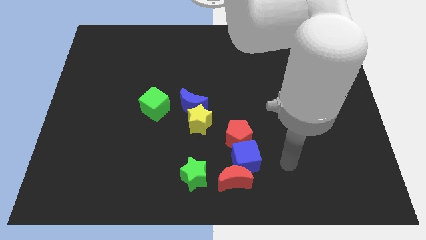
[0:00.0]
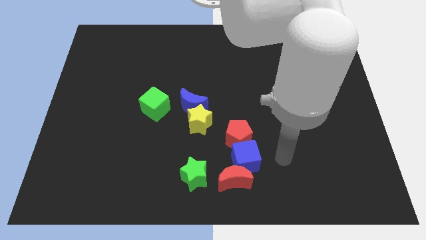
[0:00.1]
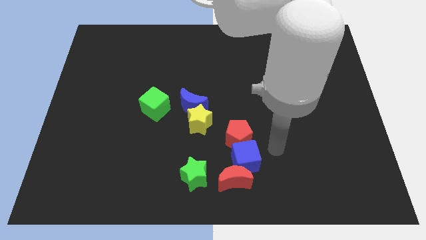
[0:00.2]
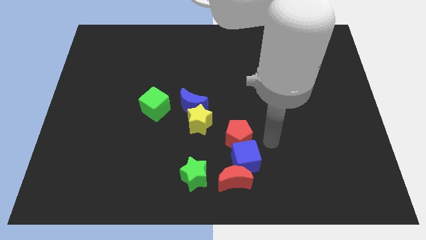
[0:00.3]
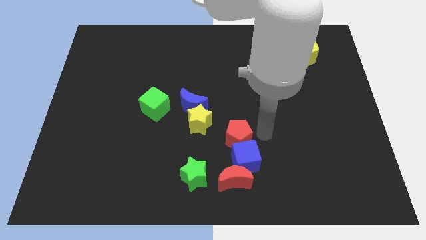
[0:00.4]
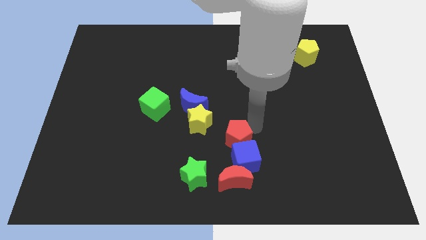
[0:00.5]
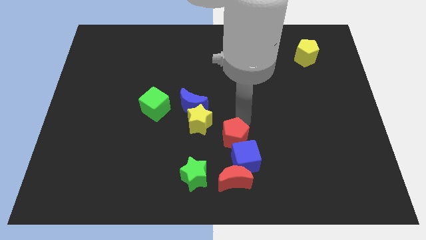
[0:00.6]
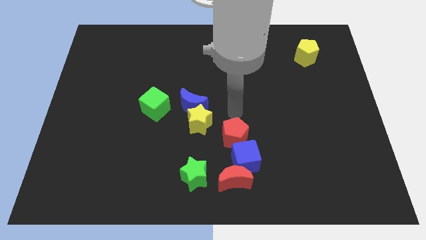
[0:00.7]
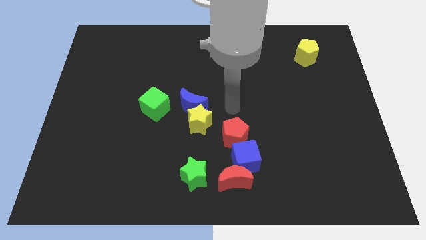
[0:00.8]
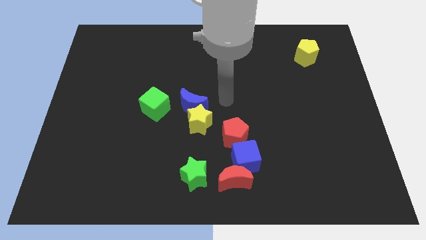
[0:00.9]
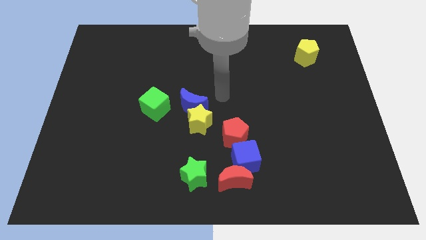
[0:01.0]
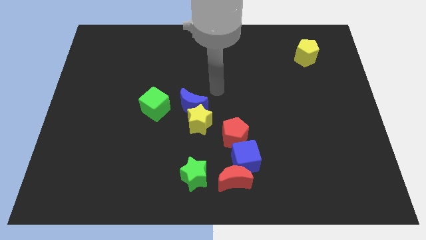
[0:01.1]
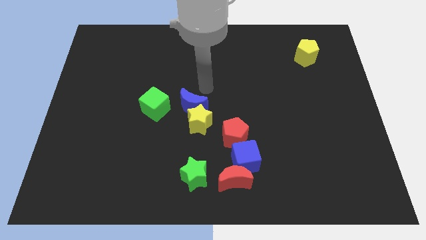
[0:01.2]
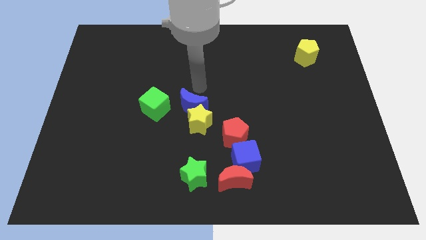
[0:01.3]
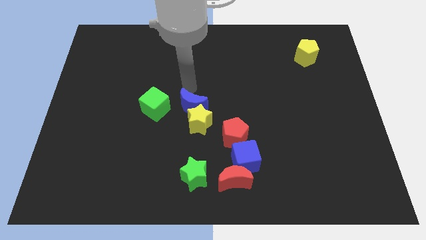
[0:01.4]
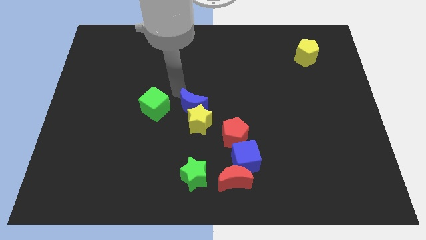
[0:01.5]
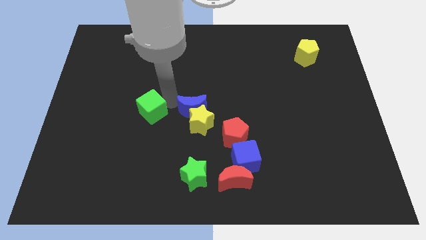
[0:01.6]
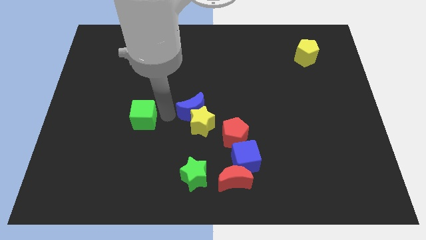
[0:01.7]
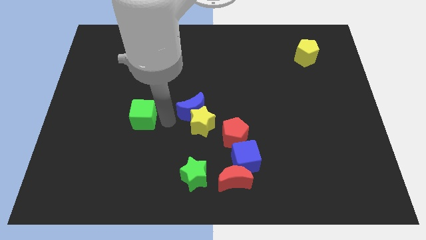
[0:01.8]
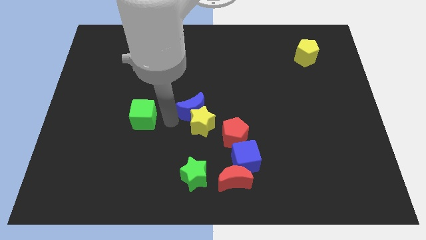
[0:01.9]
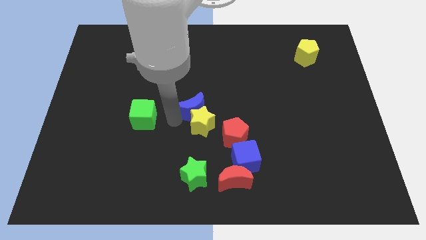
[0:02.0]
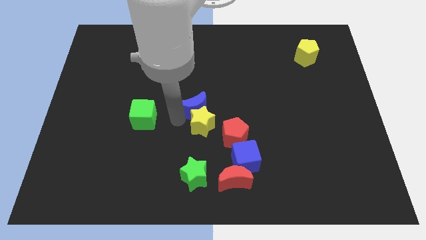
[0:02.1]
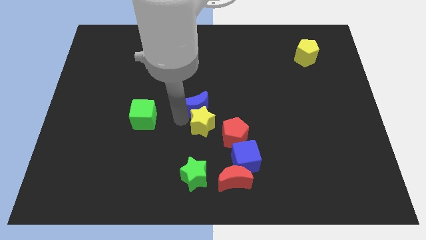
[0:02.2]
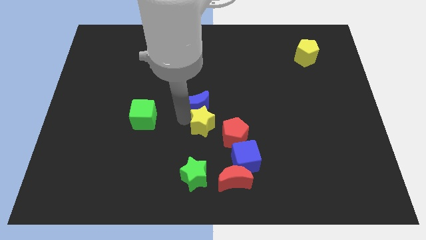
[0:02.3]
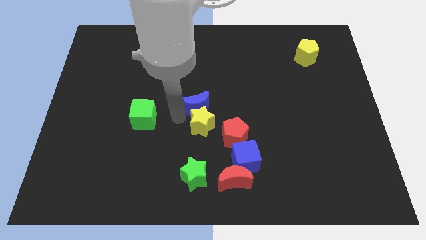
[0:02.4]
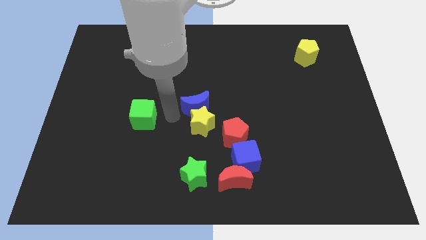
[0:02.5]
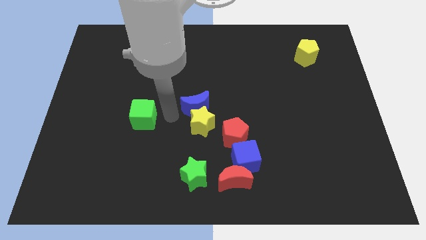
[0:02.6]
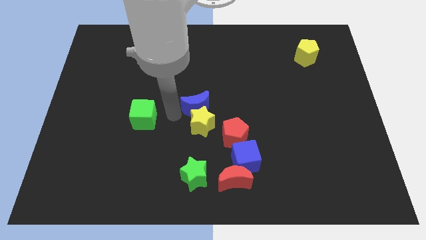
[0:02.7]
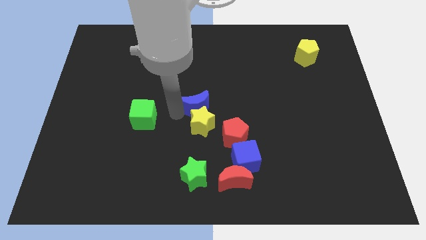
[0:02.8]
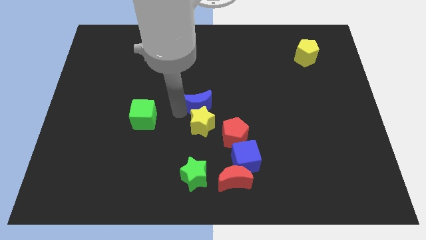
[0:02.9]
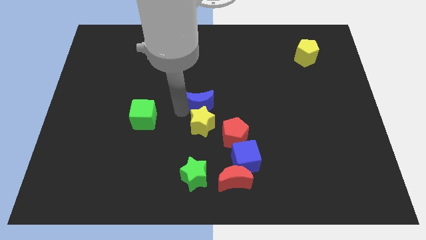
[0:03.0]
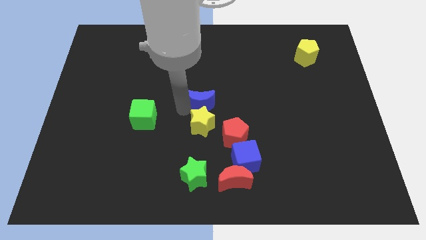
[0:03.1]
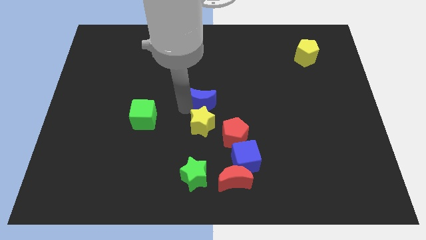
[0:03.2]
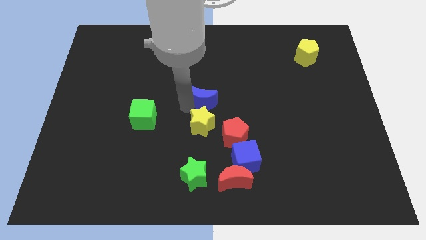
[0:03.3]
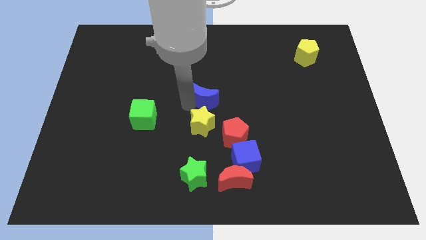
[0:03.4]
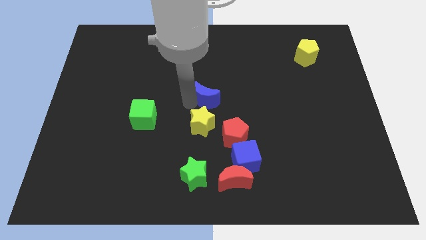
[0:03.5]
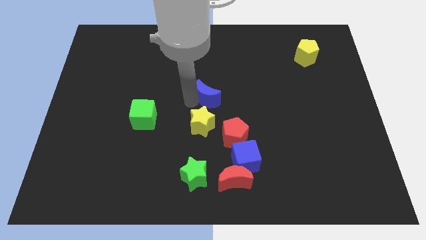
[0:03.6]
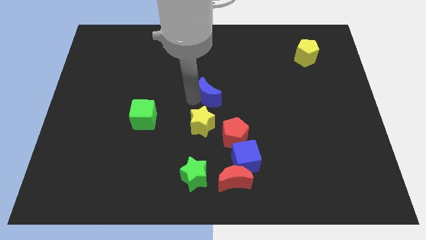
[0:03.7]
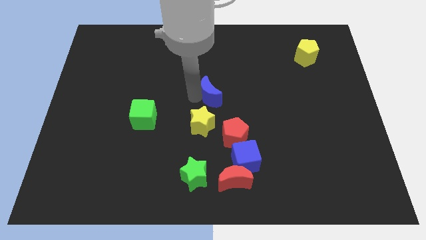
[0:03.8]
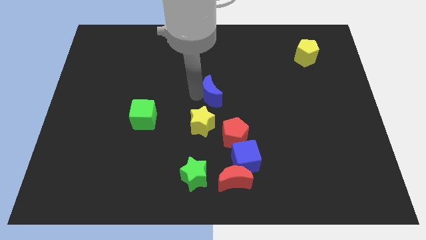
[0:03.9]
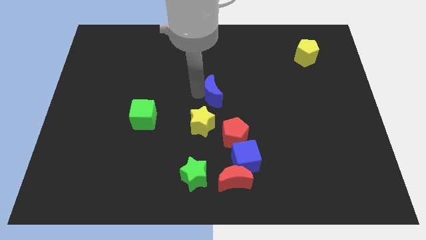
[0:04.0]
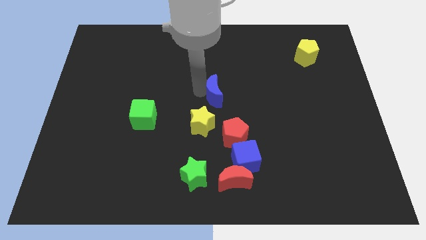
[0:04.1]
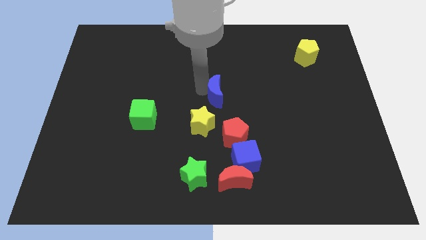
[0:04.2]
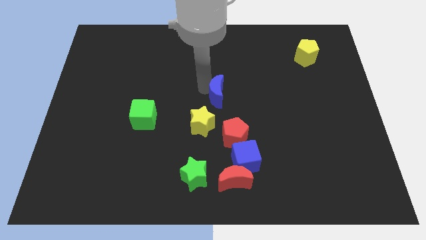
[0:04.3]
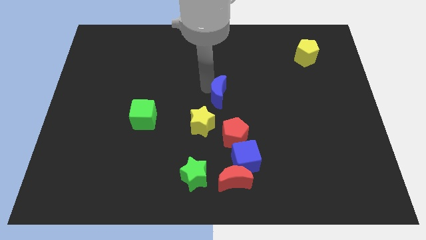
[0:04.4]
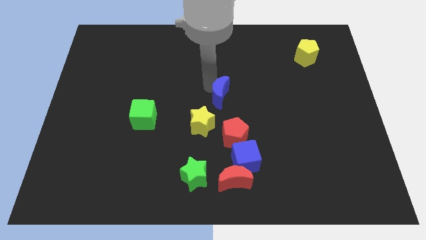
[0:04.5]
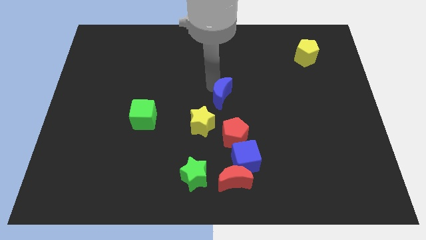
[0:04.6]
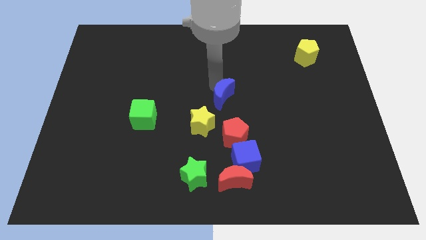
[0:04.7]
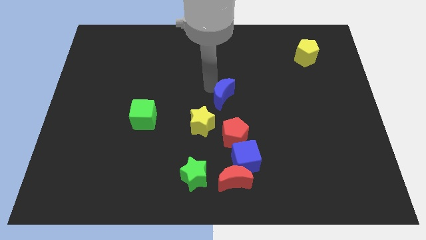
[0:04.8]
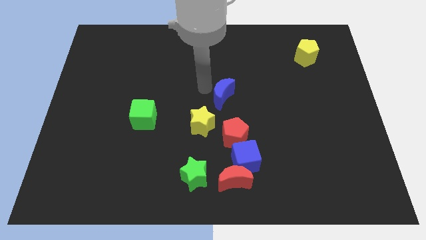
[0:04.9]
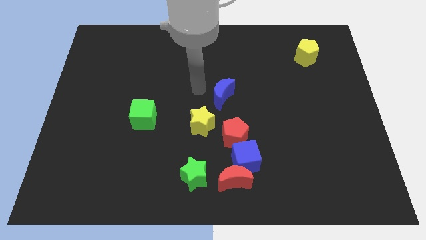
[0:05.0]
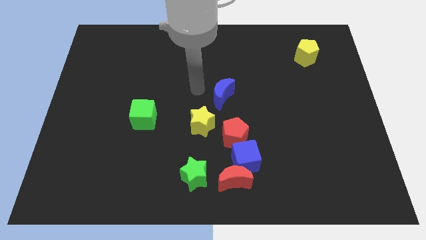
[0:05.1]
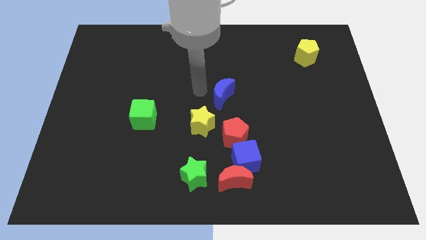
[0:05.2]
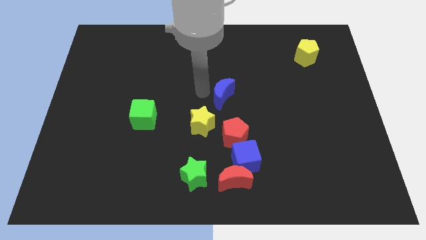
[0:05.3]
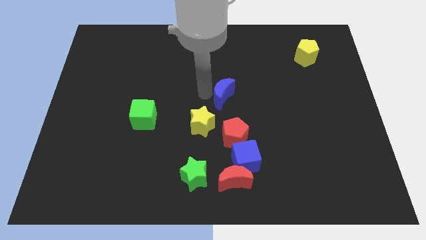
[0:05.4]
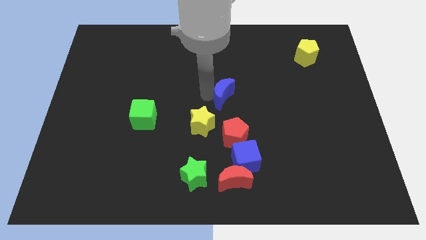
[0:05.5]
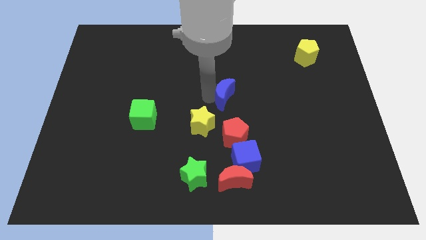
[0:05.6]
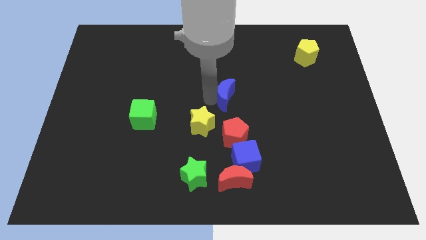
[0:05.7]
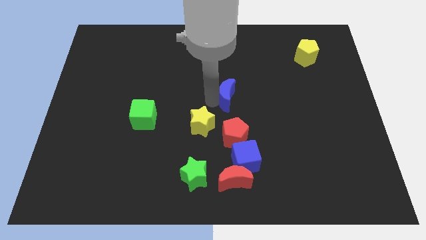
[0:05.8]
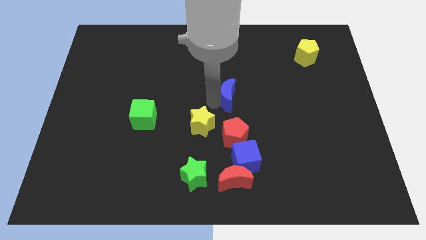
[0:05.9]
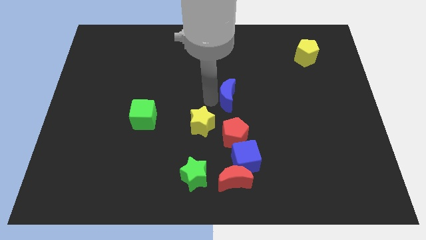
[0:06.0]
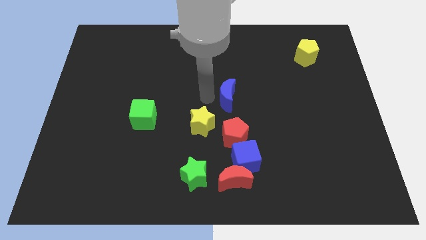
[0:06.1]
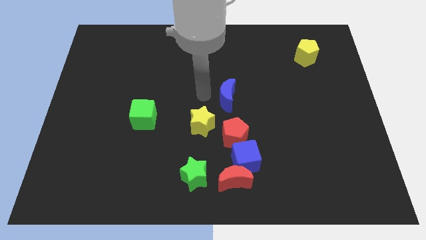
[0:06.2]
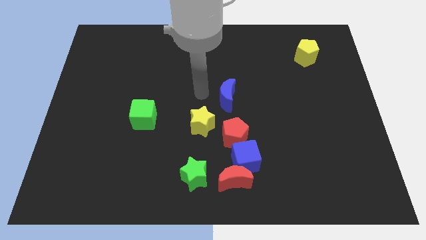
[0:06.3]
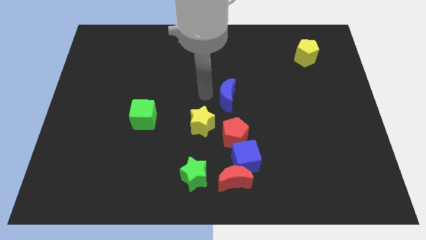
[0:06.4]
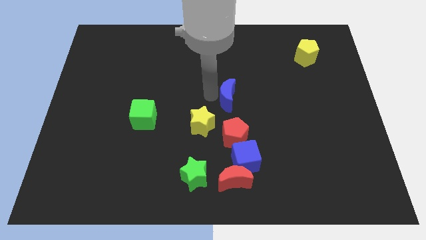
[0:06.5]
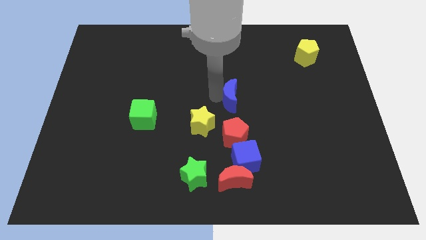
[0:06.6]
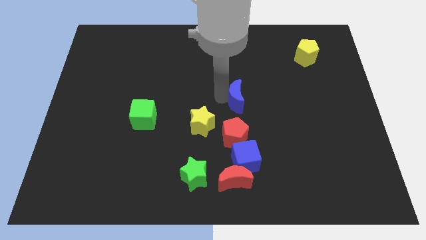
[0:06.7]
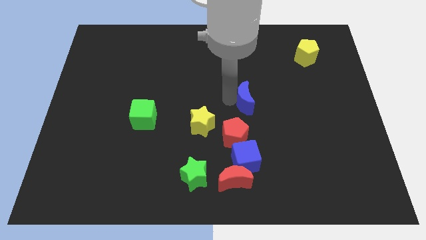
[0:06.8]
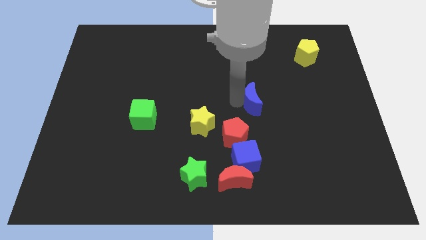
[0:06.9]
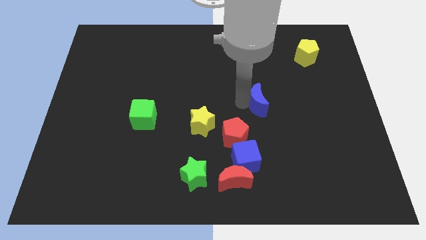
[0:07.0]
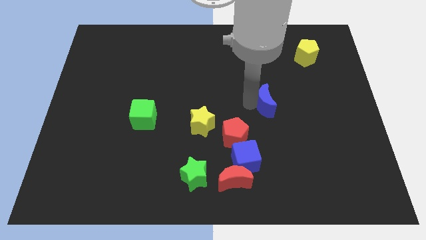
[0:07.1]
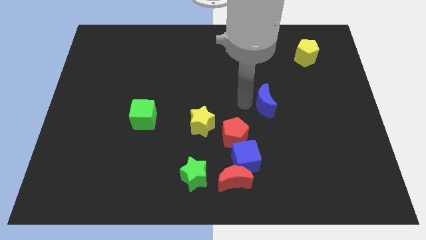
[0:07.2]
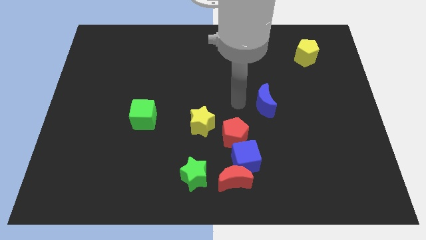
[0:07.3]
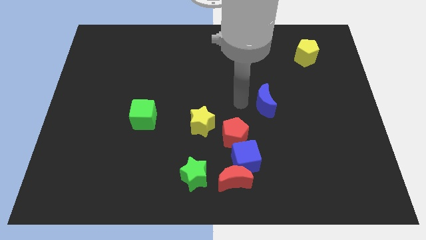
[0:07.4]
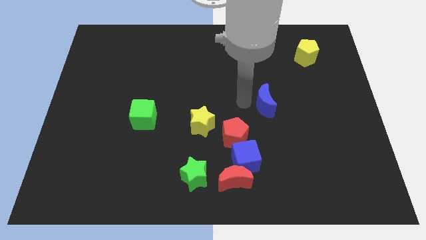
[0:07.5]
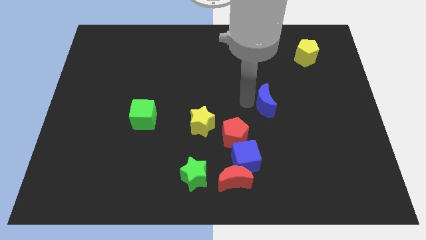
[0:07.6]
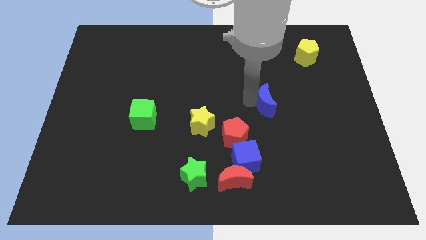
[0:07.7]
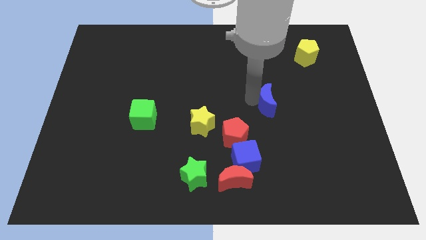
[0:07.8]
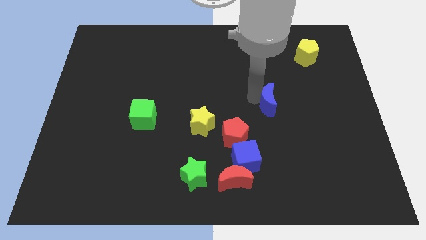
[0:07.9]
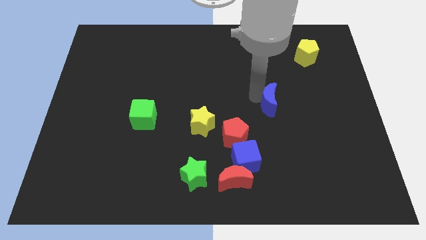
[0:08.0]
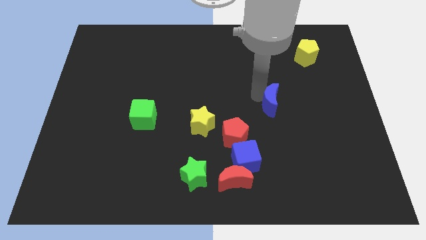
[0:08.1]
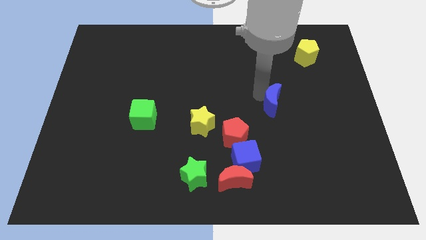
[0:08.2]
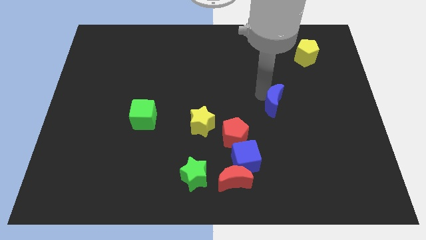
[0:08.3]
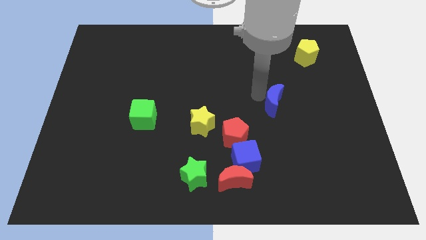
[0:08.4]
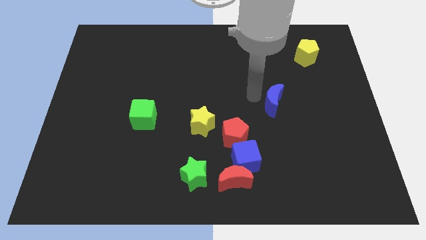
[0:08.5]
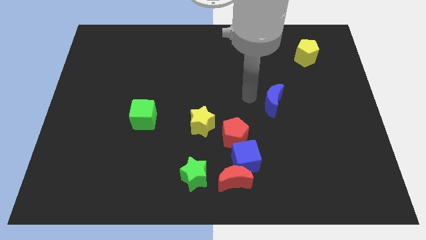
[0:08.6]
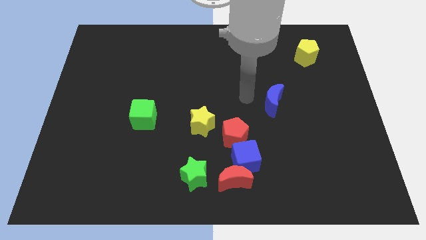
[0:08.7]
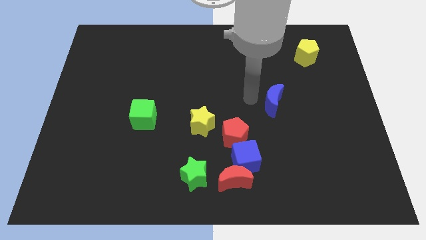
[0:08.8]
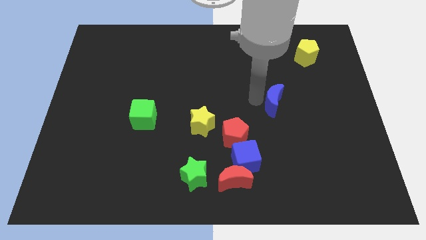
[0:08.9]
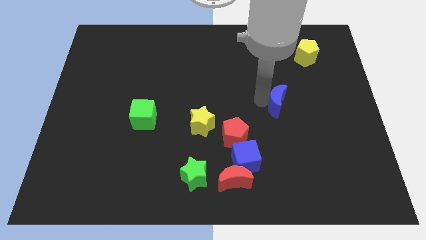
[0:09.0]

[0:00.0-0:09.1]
slide the blue moon right
